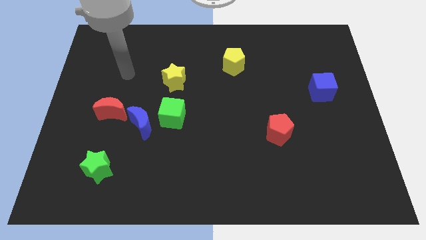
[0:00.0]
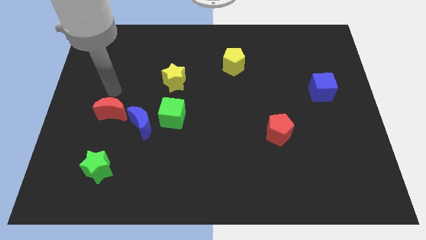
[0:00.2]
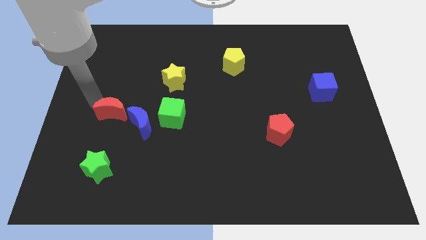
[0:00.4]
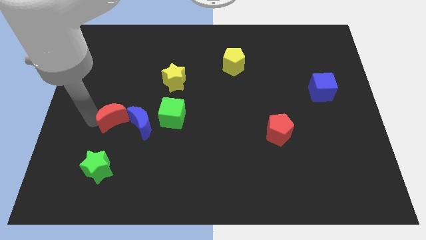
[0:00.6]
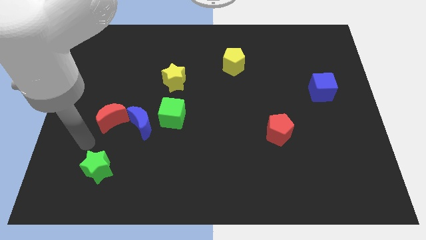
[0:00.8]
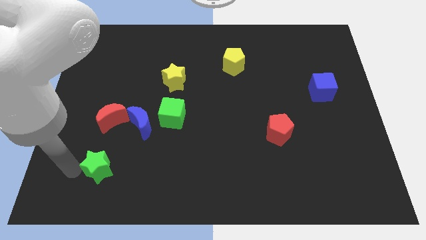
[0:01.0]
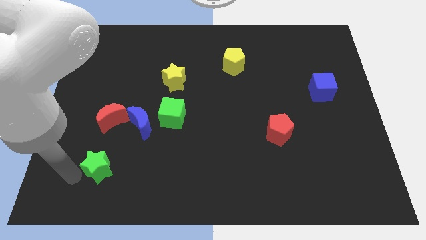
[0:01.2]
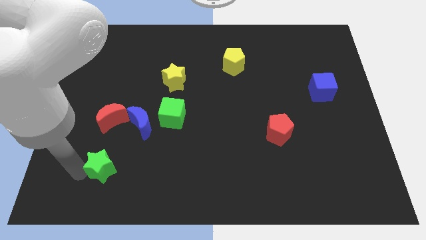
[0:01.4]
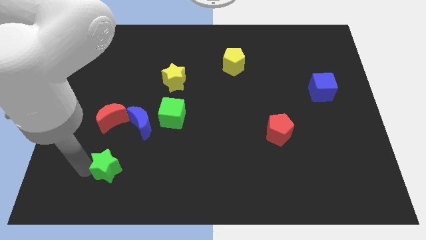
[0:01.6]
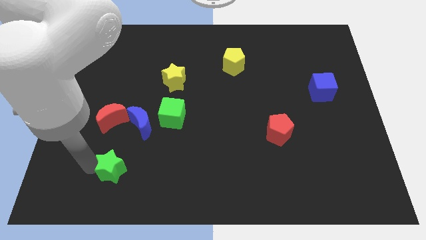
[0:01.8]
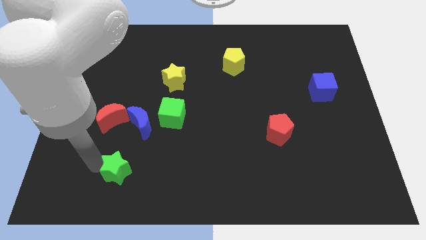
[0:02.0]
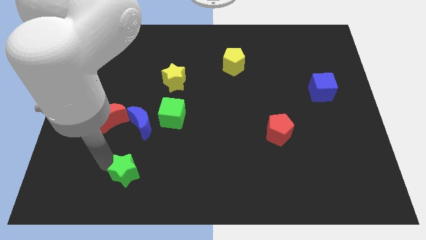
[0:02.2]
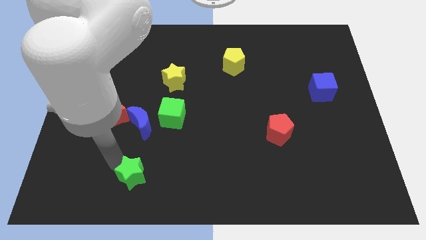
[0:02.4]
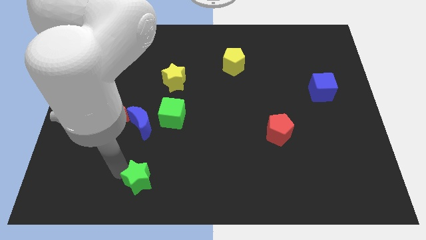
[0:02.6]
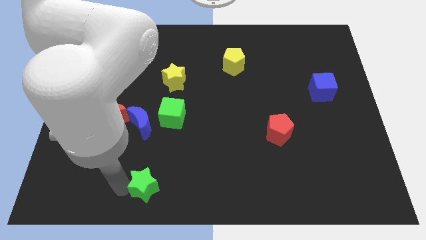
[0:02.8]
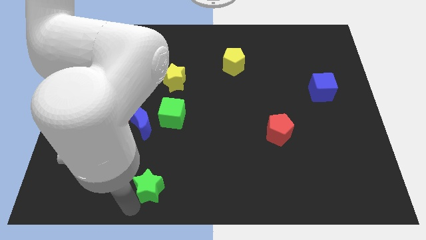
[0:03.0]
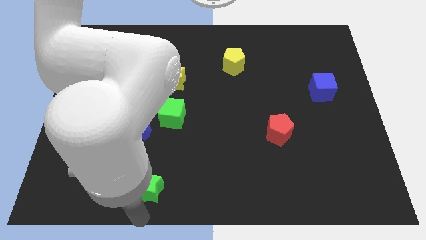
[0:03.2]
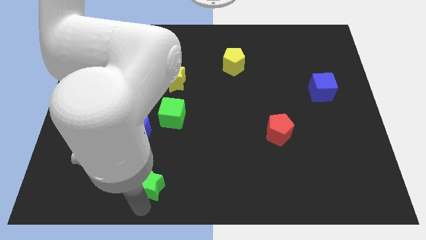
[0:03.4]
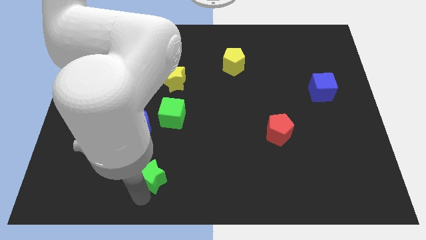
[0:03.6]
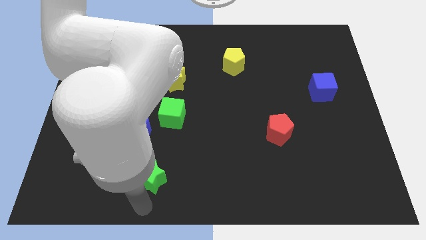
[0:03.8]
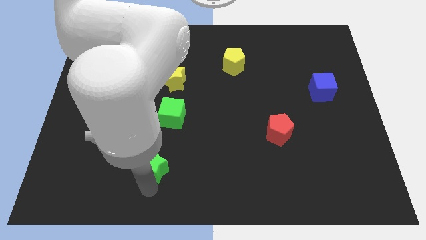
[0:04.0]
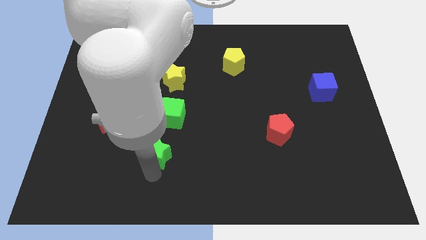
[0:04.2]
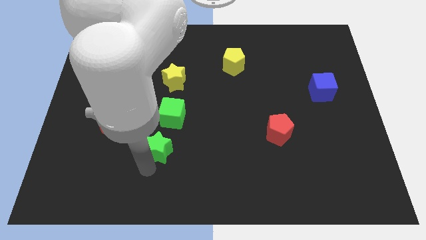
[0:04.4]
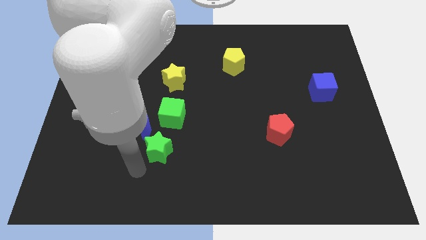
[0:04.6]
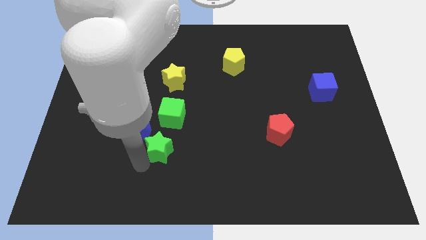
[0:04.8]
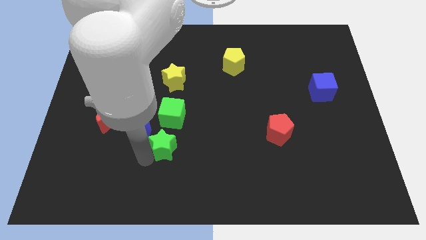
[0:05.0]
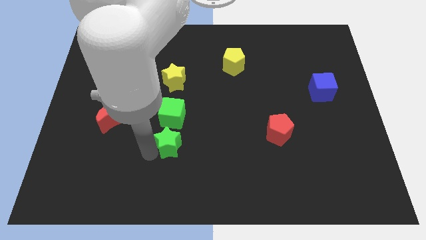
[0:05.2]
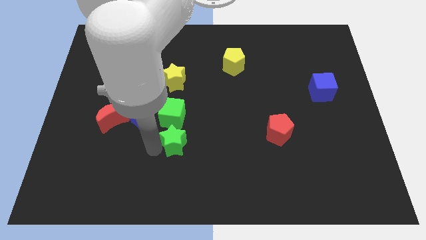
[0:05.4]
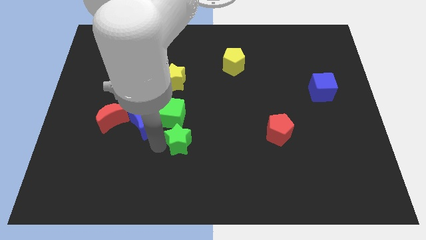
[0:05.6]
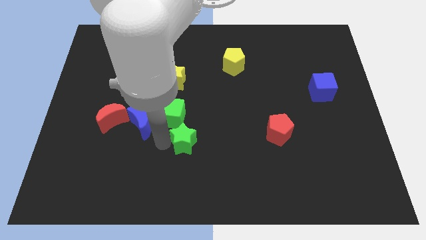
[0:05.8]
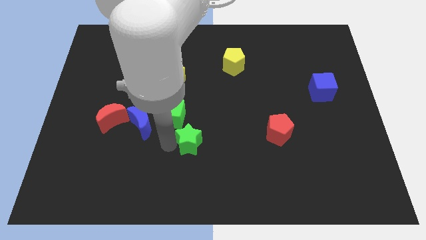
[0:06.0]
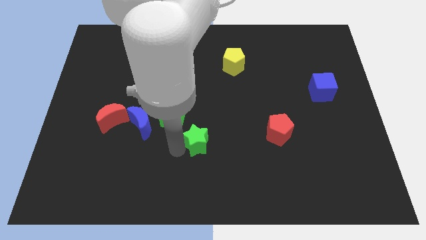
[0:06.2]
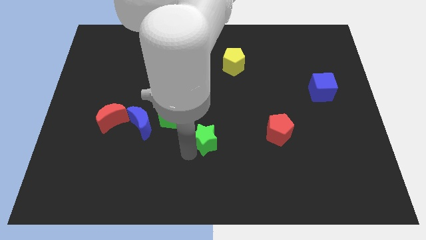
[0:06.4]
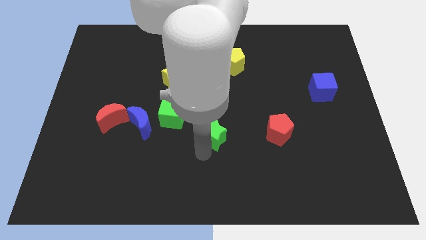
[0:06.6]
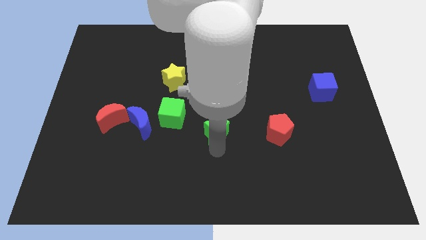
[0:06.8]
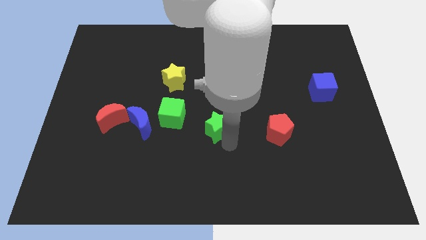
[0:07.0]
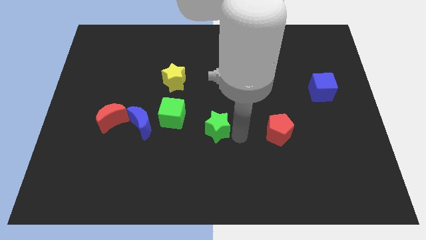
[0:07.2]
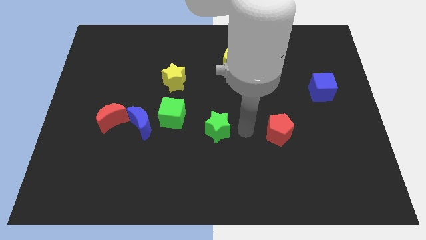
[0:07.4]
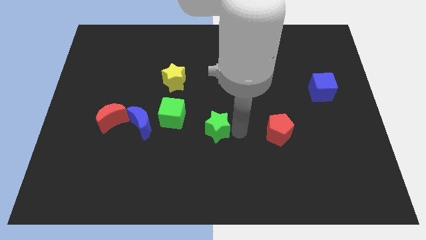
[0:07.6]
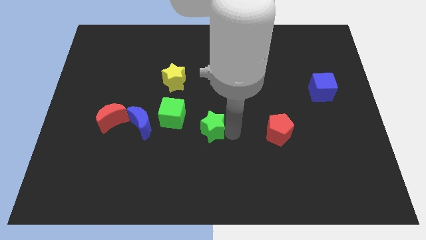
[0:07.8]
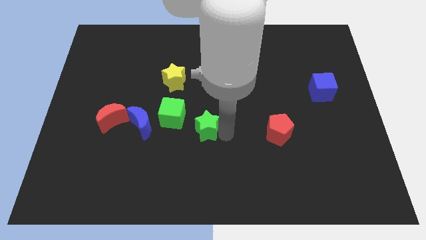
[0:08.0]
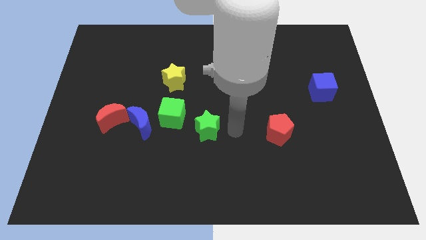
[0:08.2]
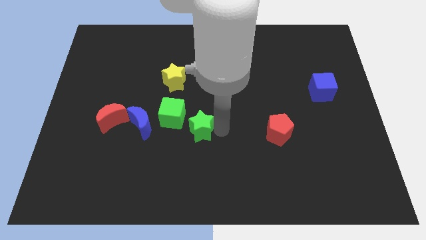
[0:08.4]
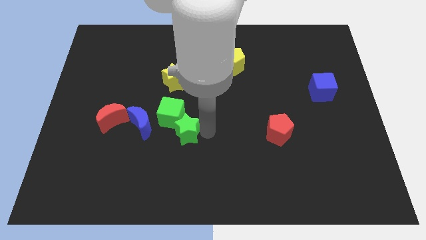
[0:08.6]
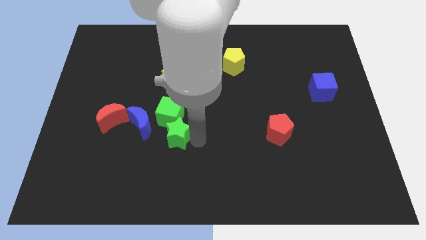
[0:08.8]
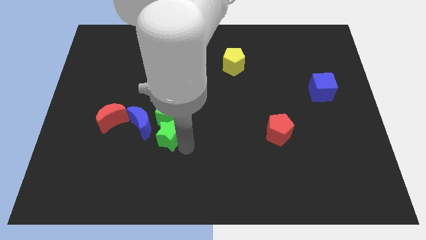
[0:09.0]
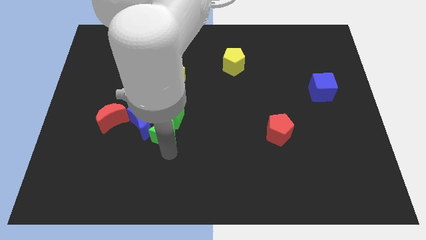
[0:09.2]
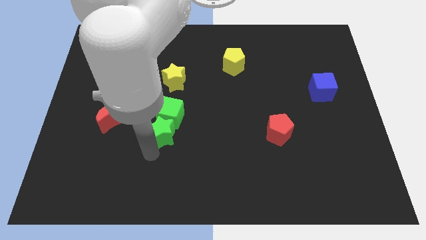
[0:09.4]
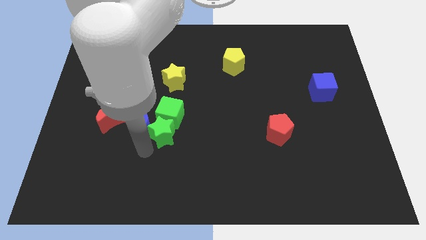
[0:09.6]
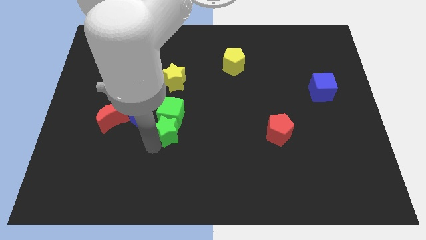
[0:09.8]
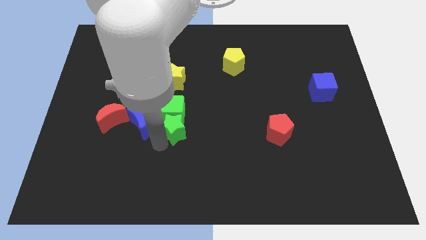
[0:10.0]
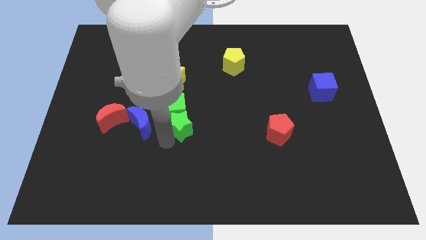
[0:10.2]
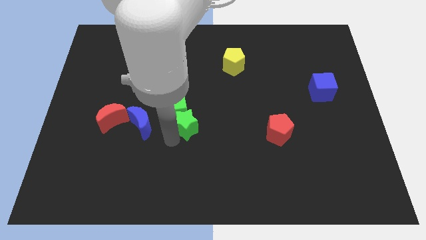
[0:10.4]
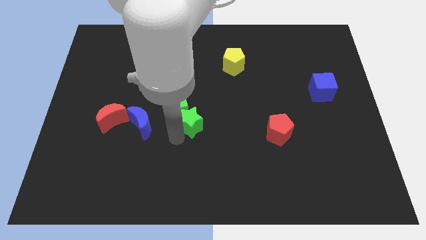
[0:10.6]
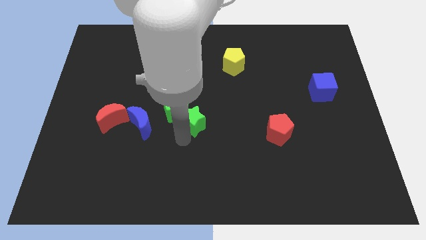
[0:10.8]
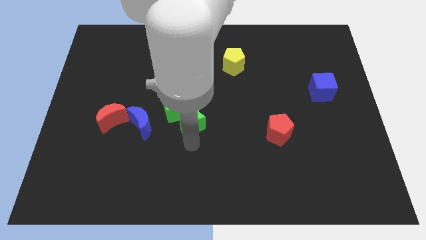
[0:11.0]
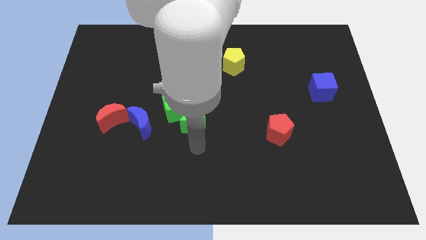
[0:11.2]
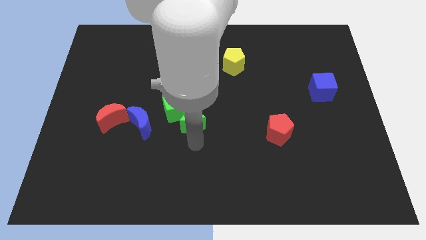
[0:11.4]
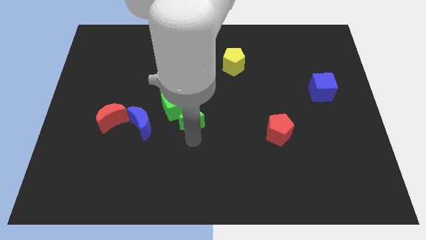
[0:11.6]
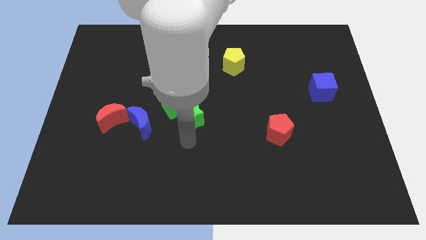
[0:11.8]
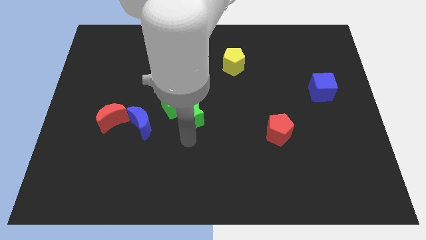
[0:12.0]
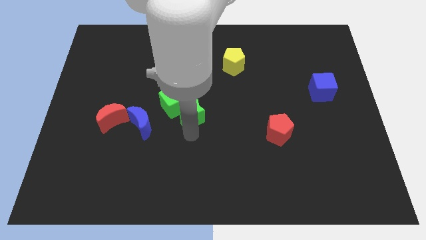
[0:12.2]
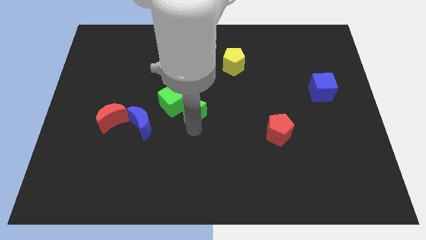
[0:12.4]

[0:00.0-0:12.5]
move the green star to the bottom right side of the yellow star
